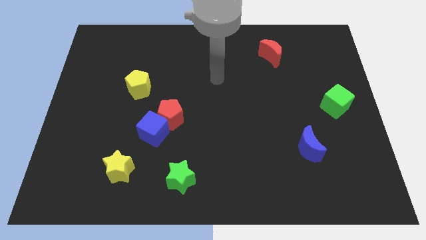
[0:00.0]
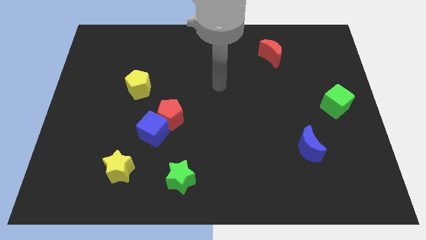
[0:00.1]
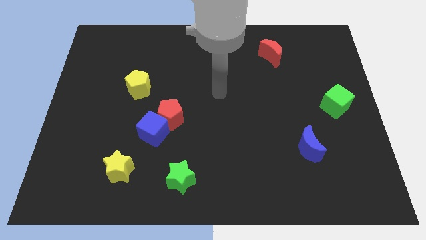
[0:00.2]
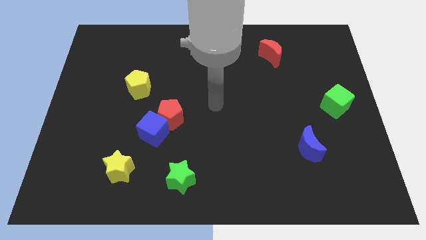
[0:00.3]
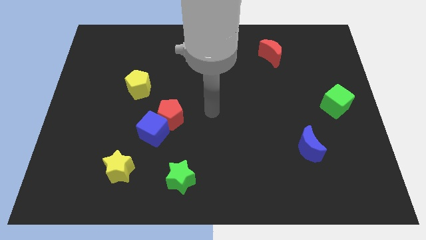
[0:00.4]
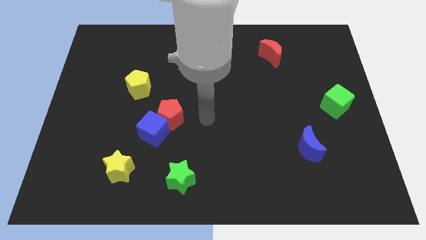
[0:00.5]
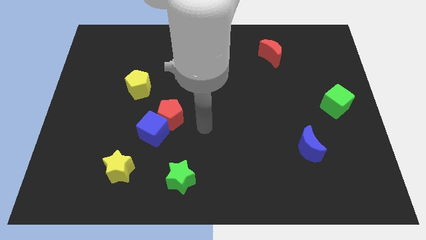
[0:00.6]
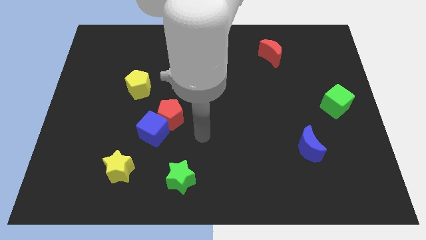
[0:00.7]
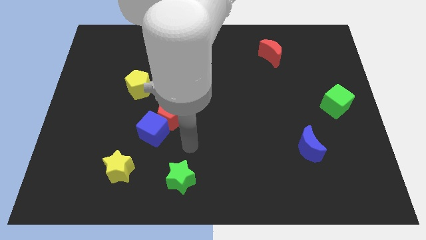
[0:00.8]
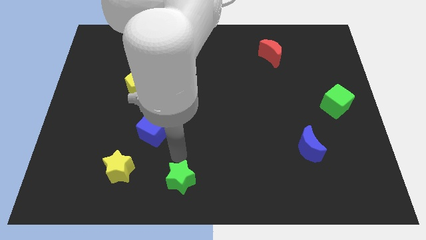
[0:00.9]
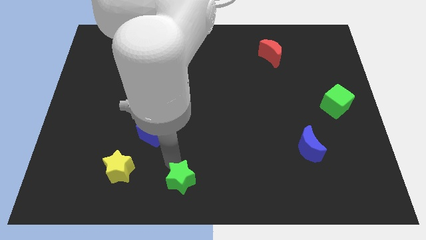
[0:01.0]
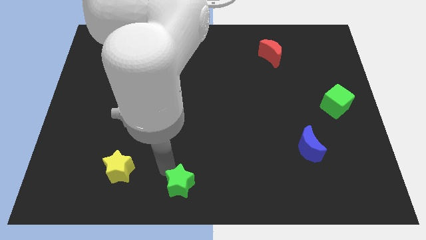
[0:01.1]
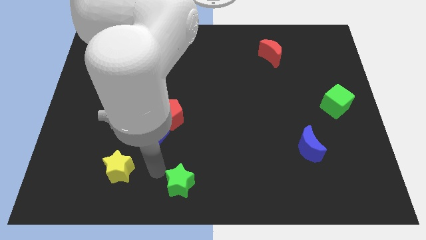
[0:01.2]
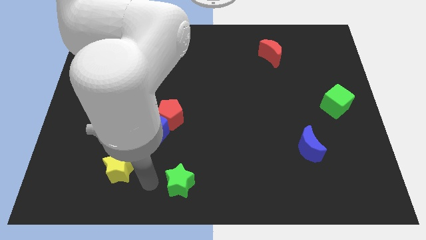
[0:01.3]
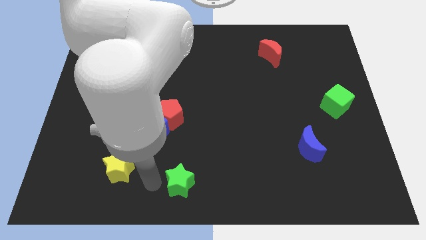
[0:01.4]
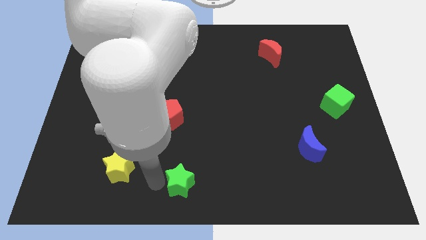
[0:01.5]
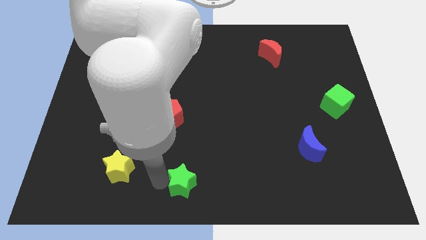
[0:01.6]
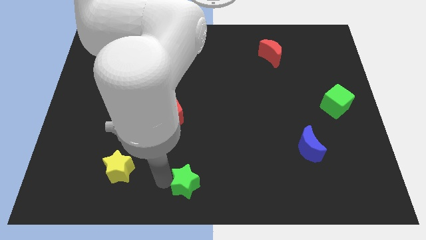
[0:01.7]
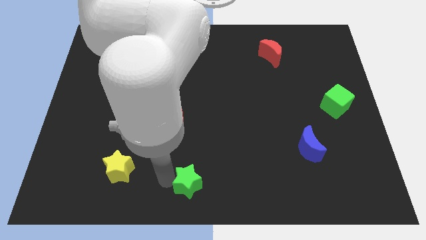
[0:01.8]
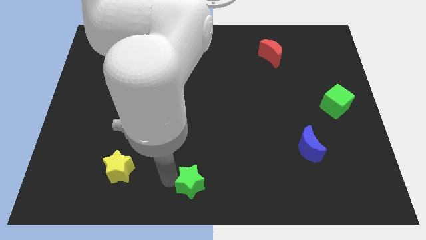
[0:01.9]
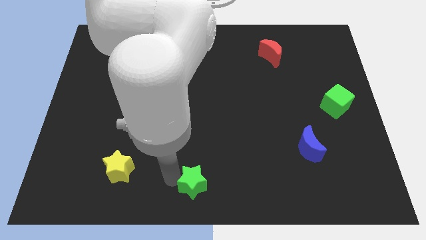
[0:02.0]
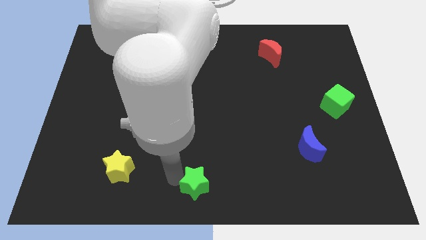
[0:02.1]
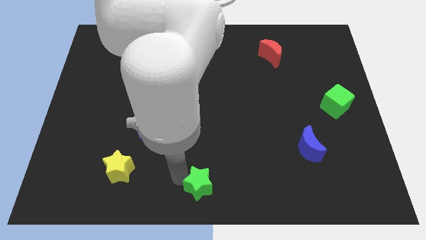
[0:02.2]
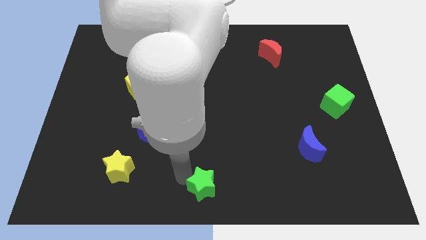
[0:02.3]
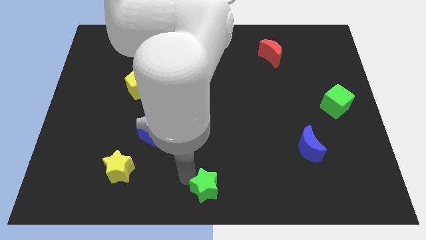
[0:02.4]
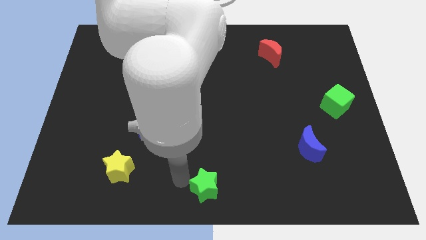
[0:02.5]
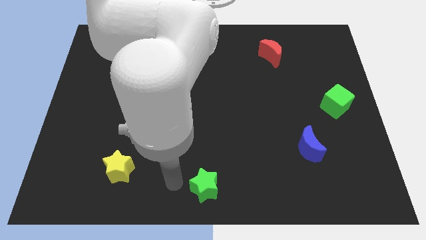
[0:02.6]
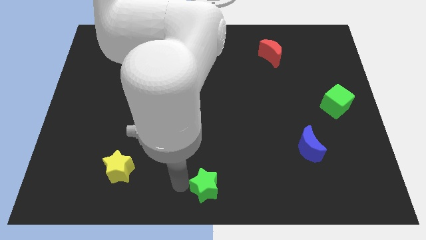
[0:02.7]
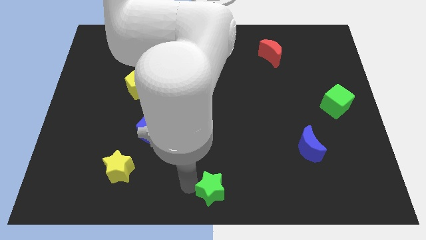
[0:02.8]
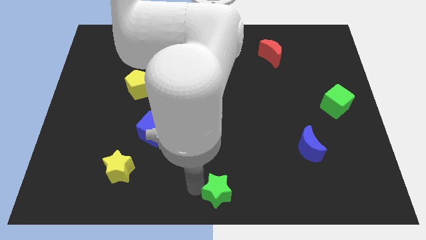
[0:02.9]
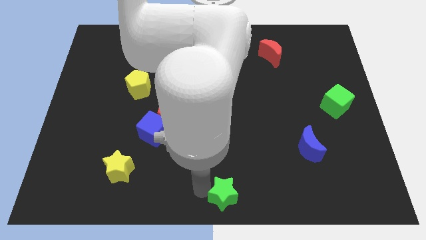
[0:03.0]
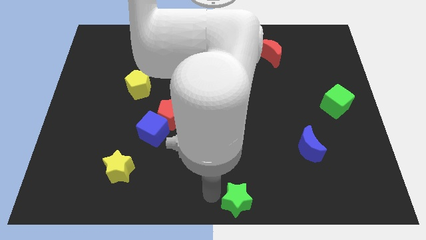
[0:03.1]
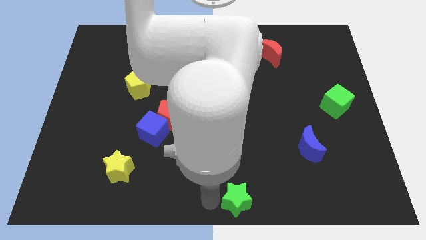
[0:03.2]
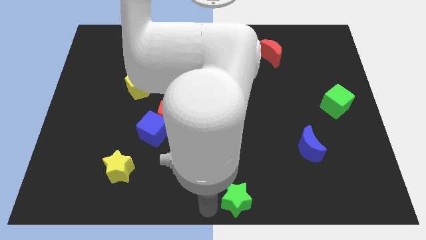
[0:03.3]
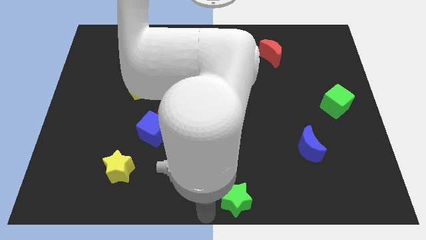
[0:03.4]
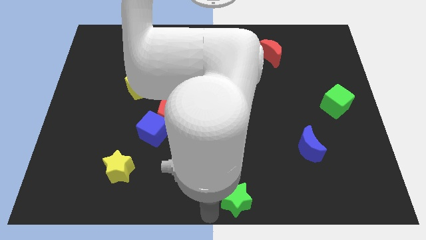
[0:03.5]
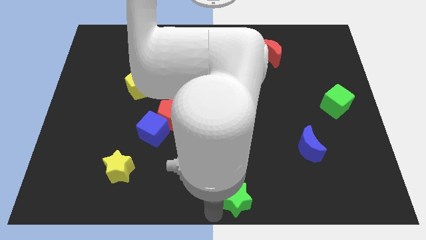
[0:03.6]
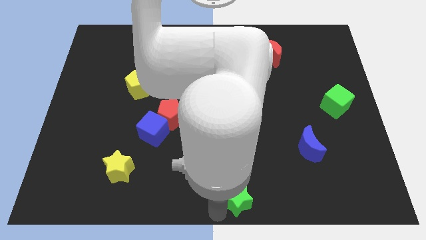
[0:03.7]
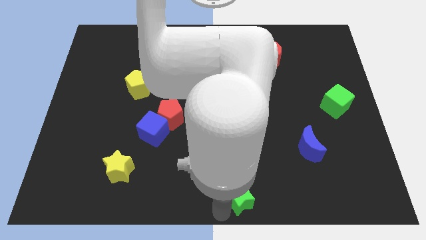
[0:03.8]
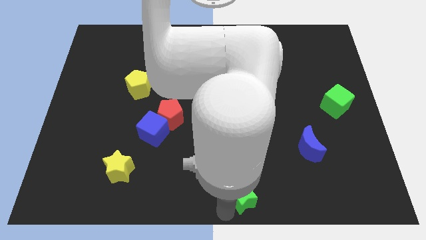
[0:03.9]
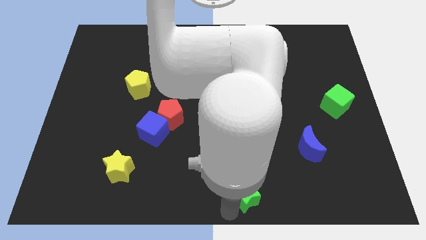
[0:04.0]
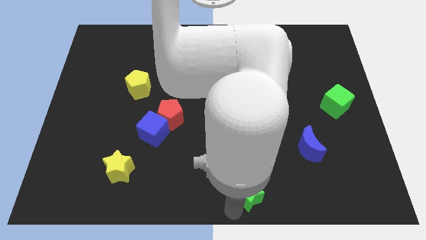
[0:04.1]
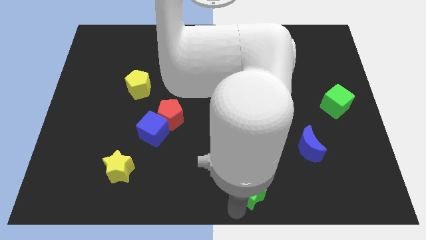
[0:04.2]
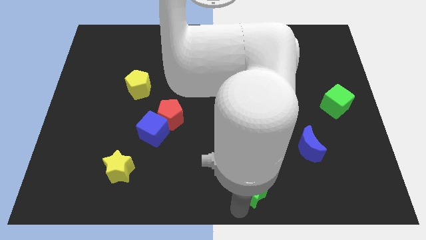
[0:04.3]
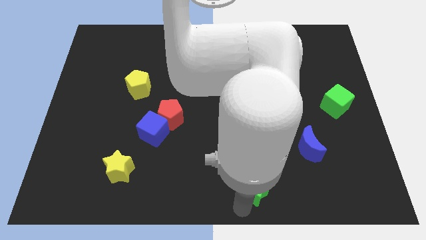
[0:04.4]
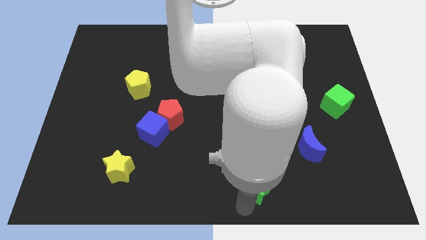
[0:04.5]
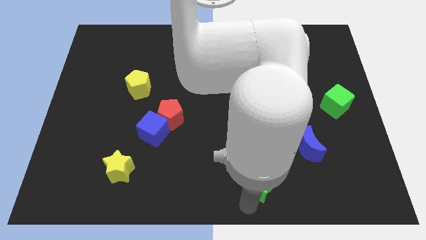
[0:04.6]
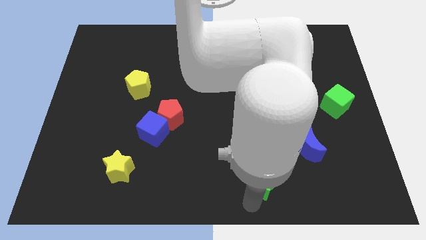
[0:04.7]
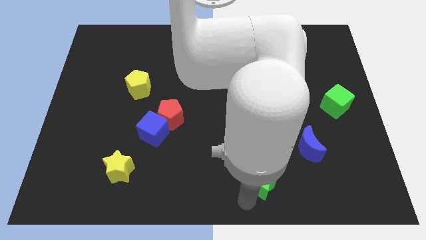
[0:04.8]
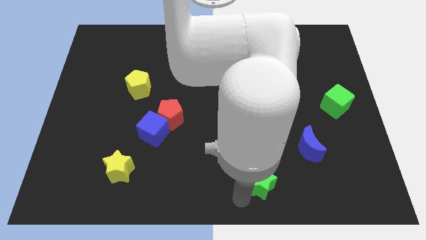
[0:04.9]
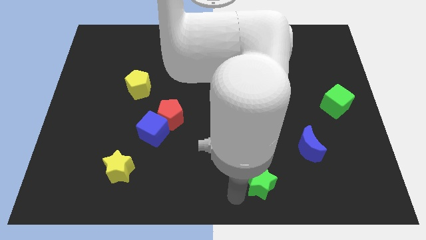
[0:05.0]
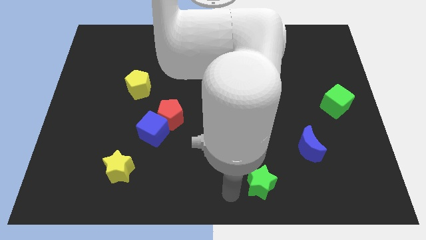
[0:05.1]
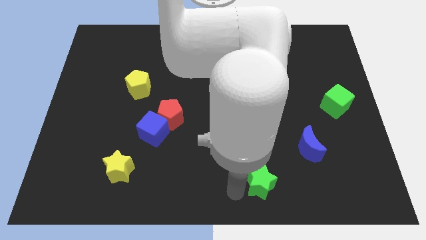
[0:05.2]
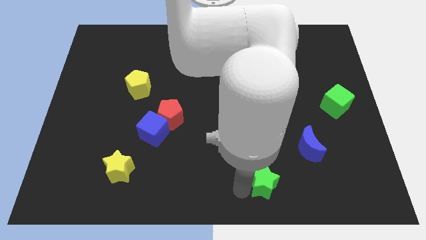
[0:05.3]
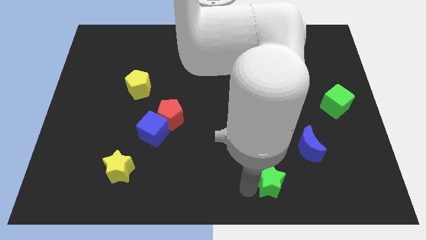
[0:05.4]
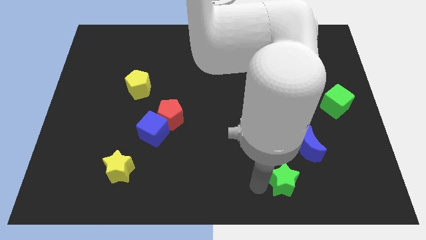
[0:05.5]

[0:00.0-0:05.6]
slide the green star right

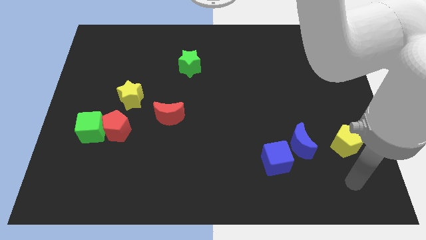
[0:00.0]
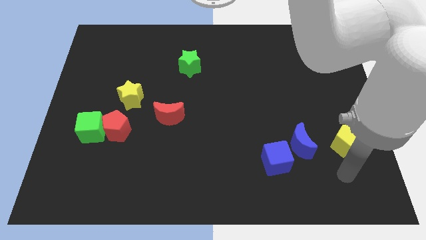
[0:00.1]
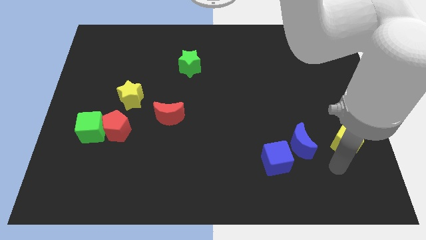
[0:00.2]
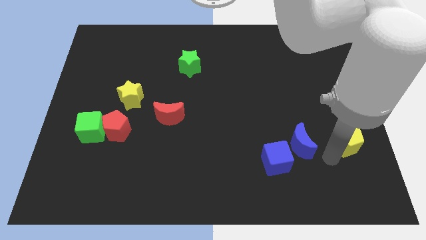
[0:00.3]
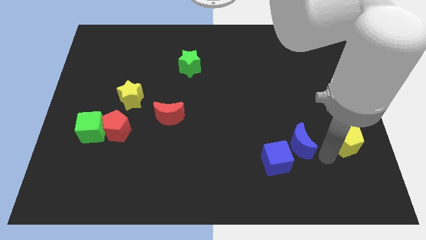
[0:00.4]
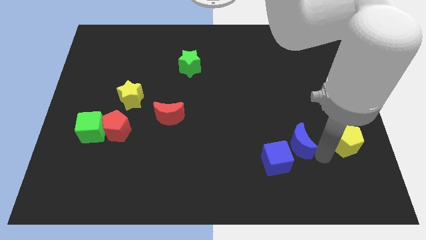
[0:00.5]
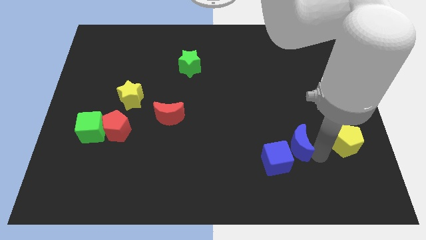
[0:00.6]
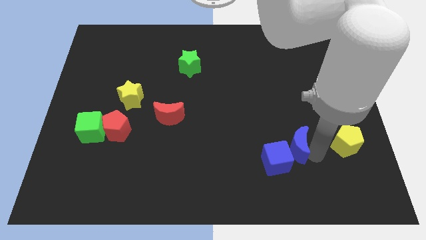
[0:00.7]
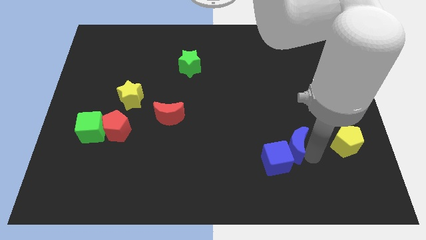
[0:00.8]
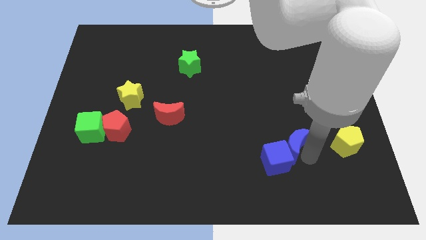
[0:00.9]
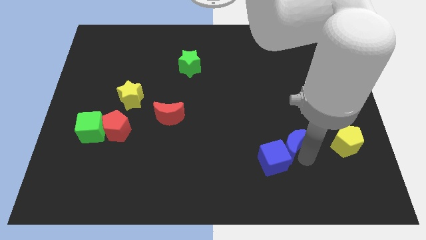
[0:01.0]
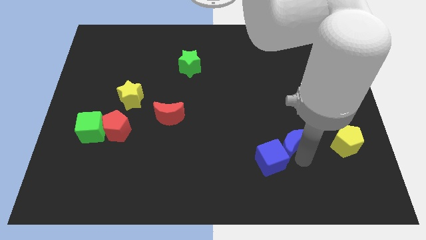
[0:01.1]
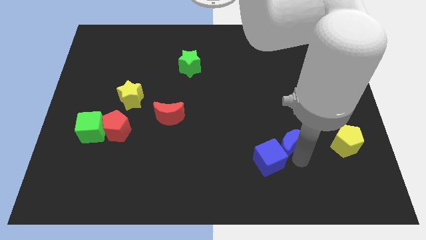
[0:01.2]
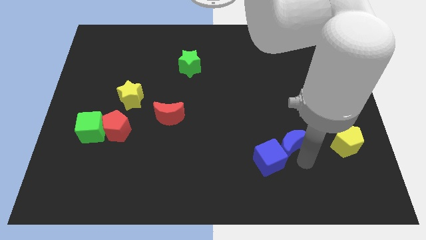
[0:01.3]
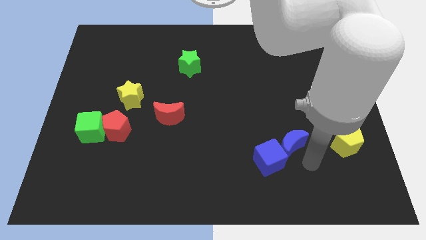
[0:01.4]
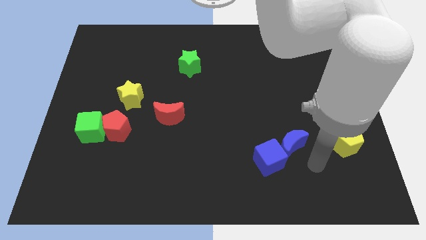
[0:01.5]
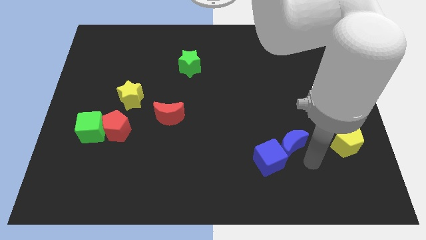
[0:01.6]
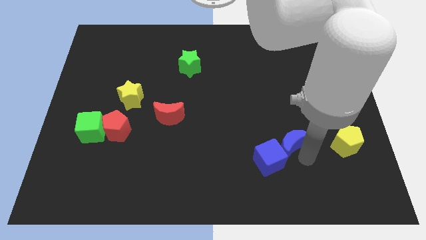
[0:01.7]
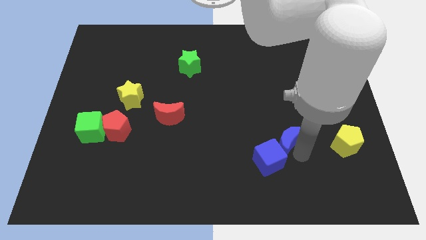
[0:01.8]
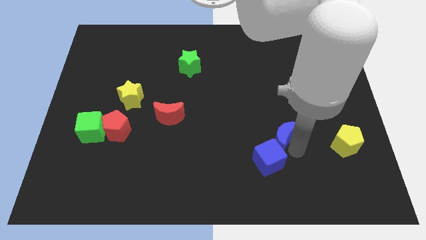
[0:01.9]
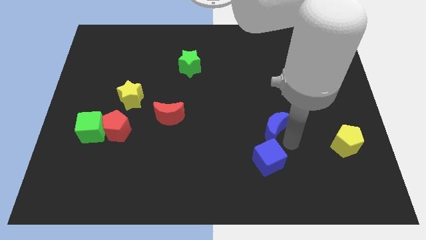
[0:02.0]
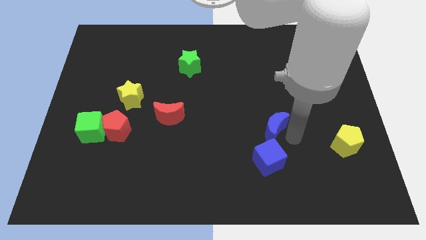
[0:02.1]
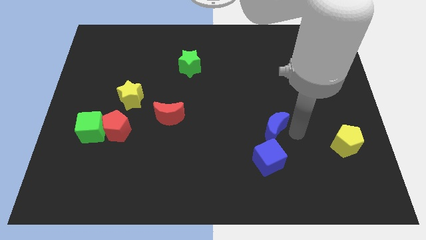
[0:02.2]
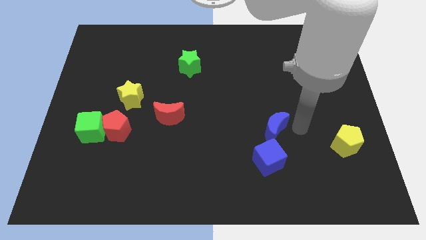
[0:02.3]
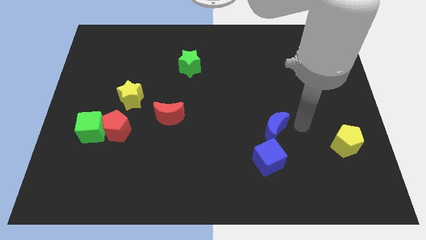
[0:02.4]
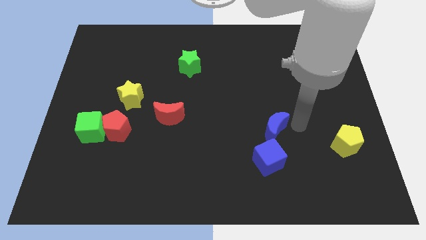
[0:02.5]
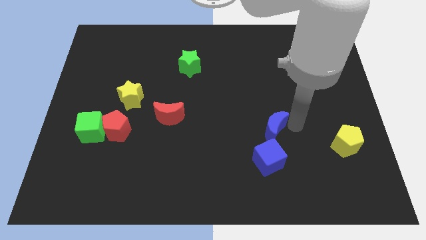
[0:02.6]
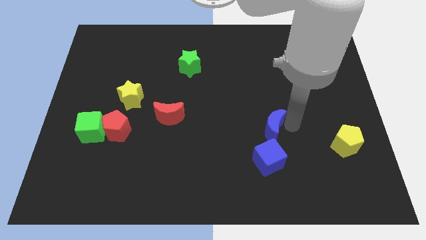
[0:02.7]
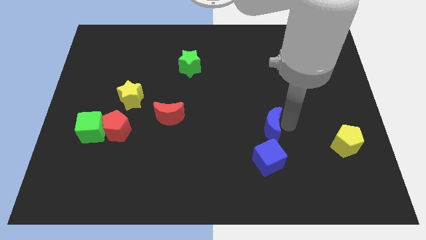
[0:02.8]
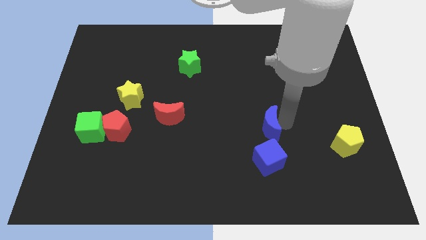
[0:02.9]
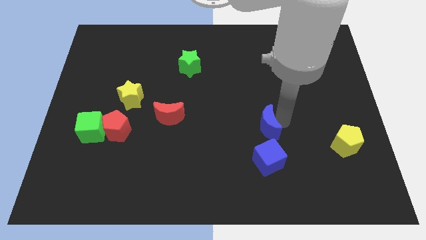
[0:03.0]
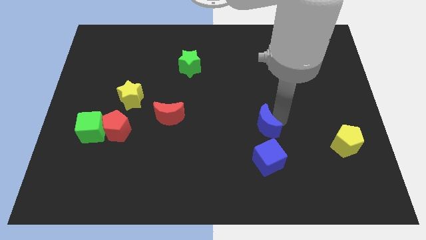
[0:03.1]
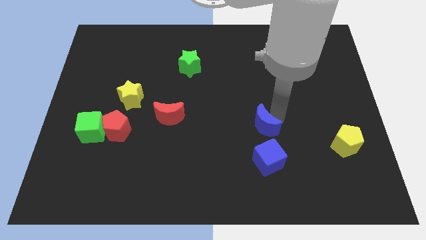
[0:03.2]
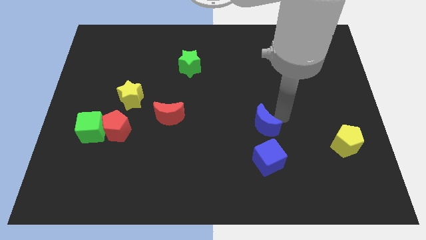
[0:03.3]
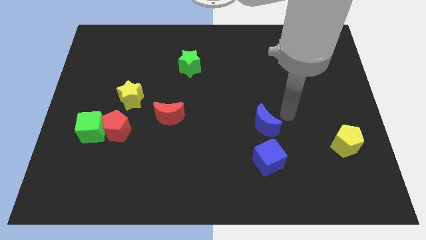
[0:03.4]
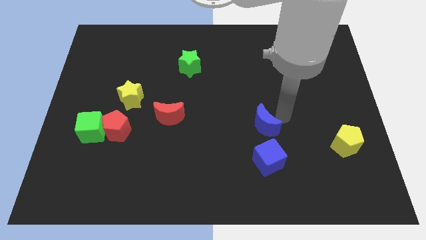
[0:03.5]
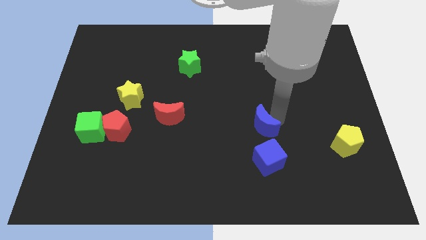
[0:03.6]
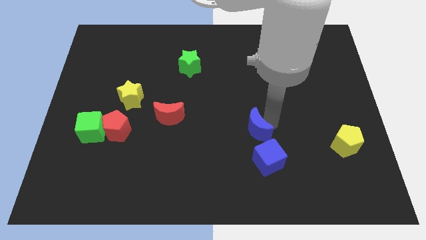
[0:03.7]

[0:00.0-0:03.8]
move the blue moon somewhat left
